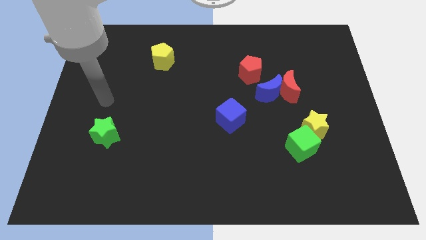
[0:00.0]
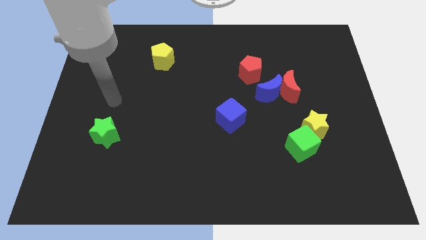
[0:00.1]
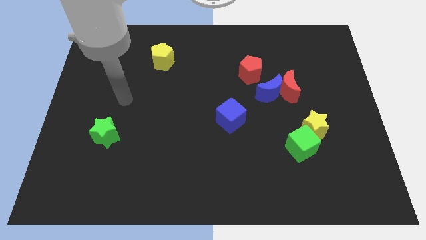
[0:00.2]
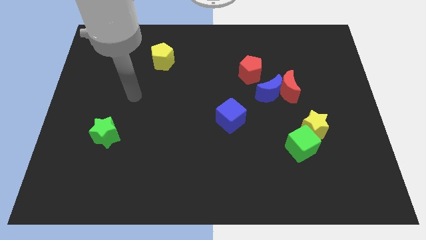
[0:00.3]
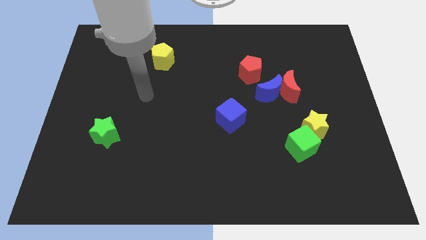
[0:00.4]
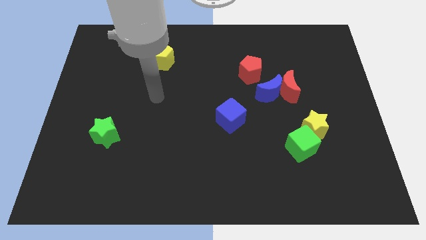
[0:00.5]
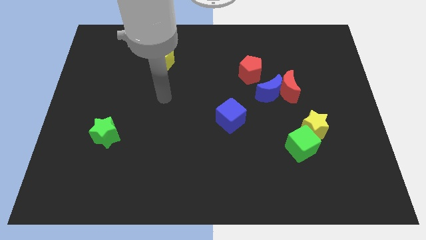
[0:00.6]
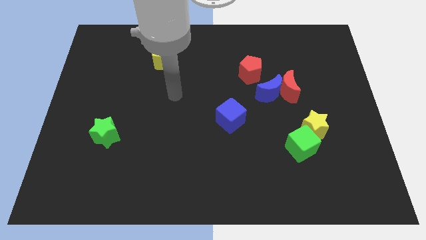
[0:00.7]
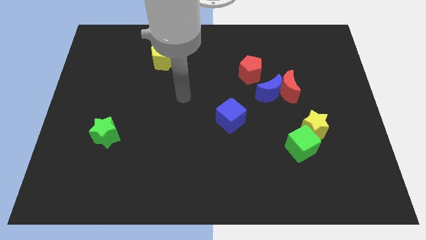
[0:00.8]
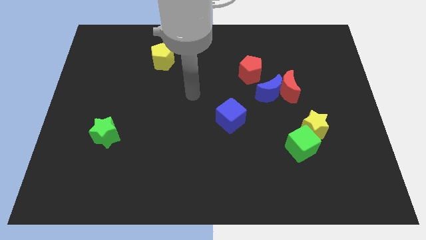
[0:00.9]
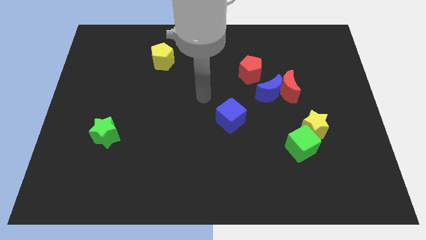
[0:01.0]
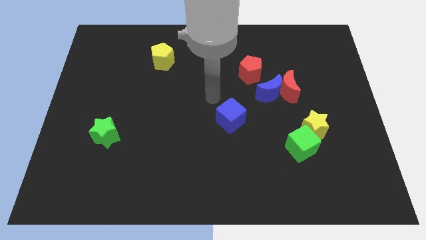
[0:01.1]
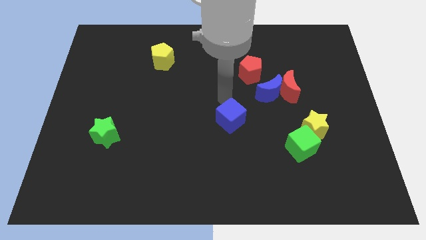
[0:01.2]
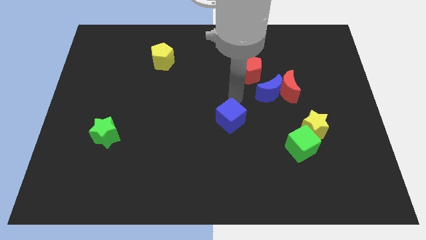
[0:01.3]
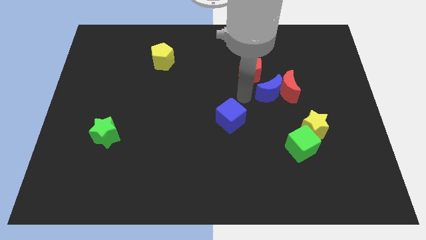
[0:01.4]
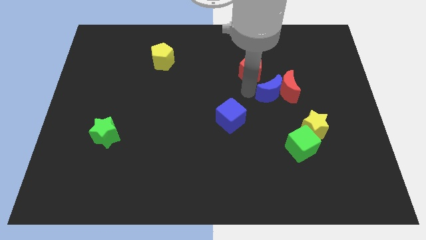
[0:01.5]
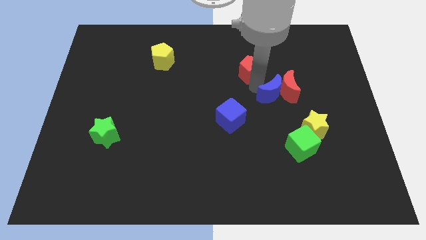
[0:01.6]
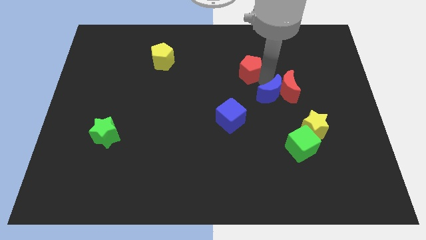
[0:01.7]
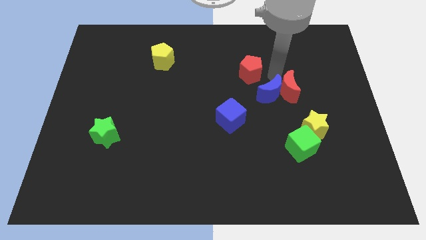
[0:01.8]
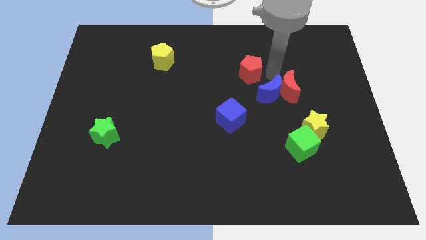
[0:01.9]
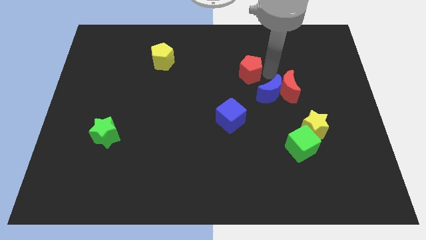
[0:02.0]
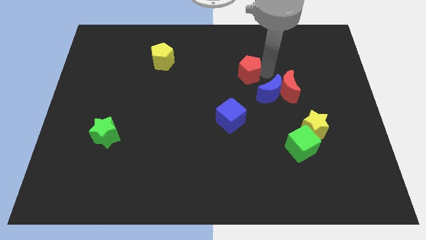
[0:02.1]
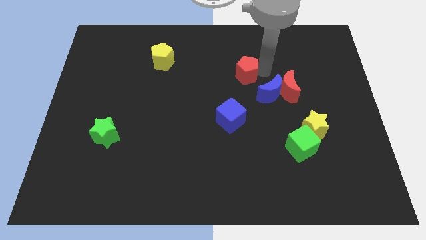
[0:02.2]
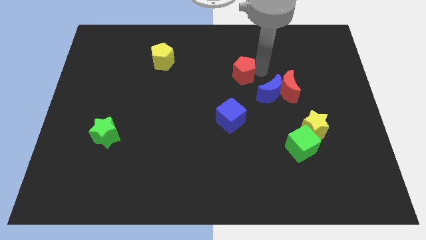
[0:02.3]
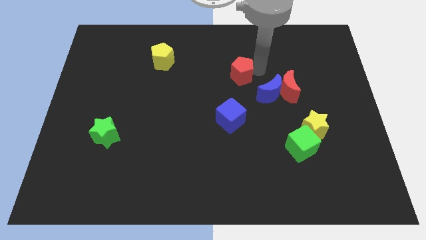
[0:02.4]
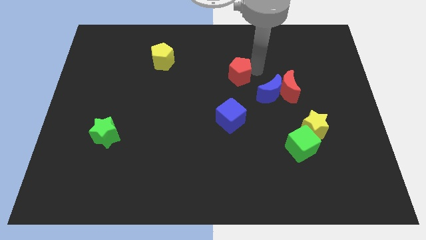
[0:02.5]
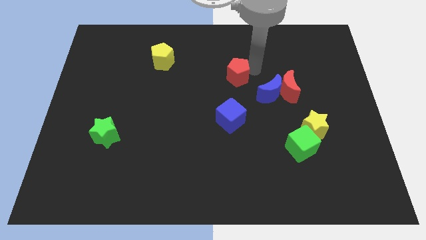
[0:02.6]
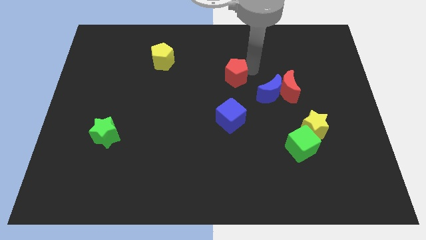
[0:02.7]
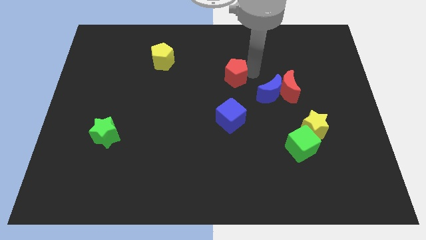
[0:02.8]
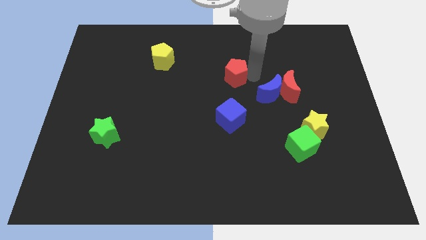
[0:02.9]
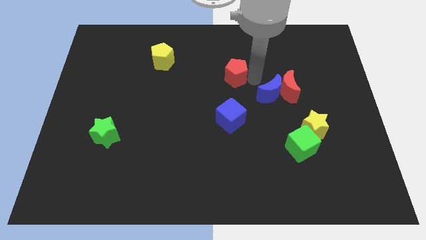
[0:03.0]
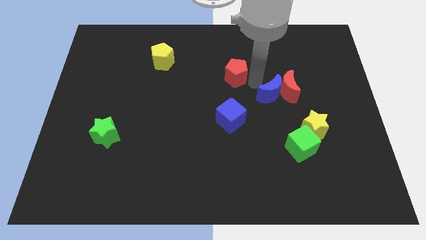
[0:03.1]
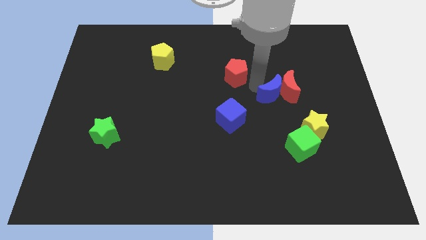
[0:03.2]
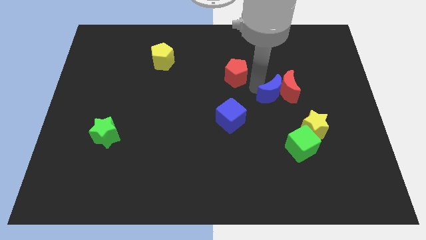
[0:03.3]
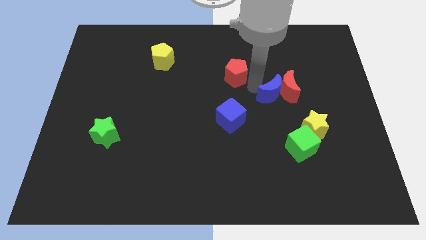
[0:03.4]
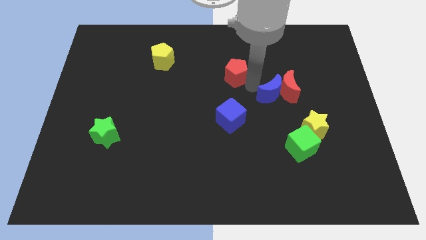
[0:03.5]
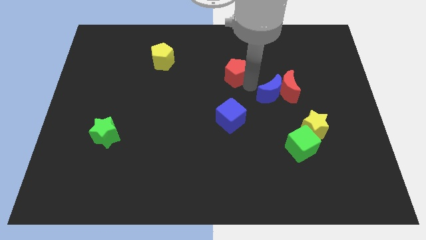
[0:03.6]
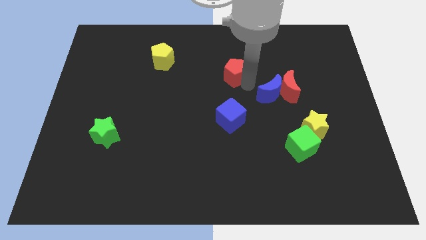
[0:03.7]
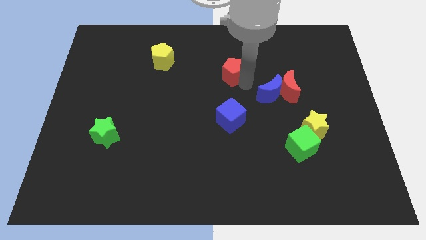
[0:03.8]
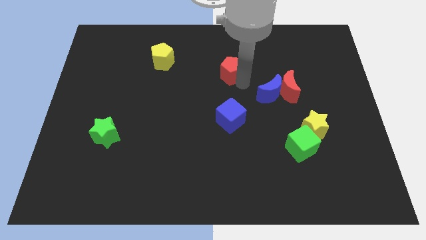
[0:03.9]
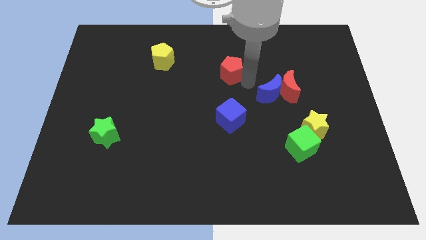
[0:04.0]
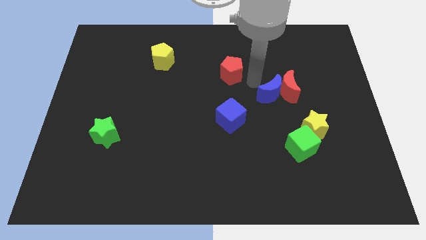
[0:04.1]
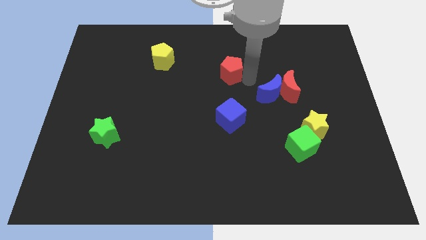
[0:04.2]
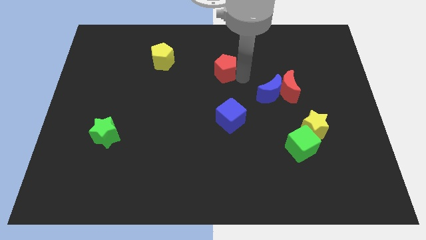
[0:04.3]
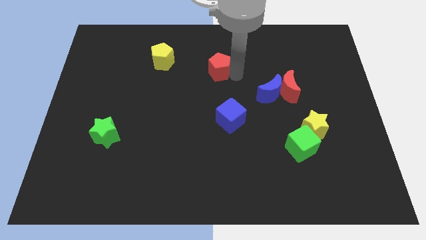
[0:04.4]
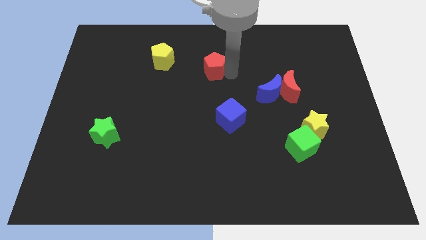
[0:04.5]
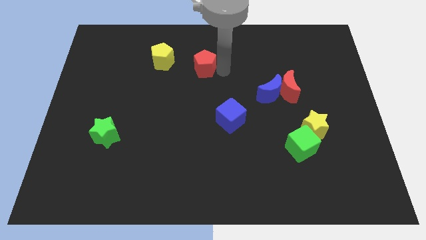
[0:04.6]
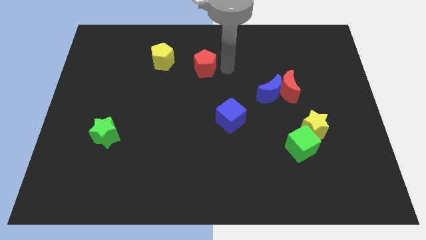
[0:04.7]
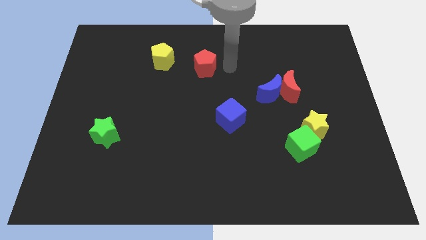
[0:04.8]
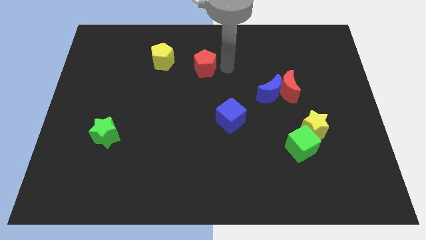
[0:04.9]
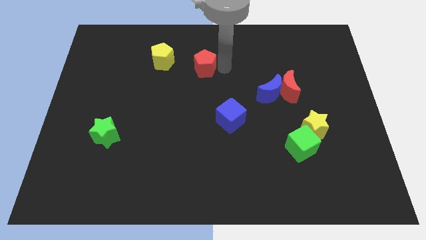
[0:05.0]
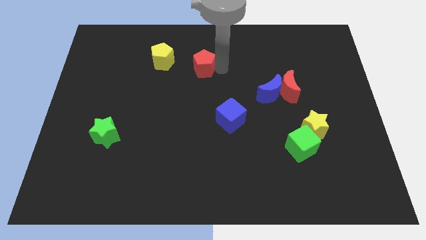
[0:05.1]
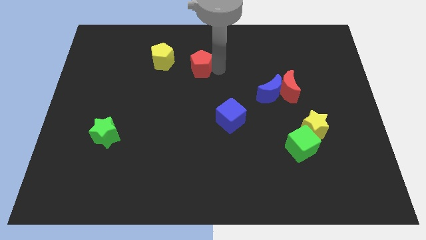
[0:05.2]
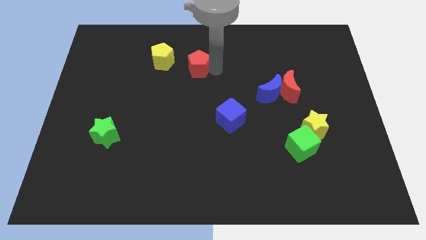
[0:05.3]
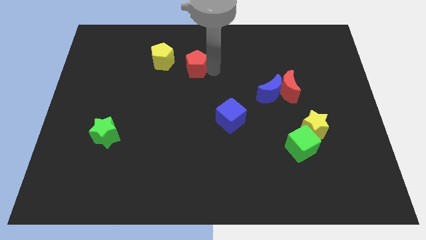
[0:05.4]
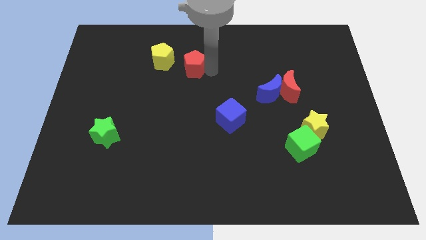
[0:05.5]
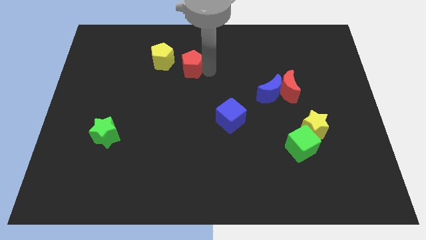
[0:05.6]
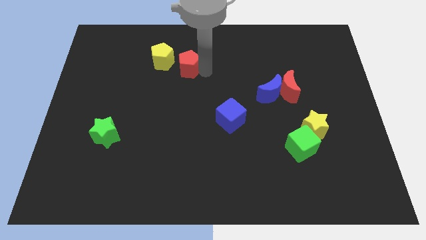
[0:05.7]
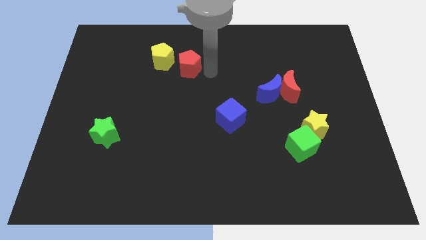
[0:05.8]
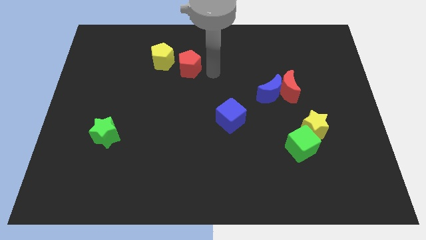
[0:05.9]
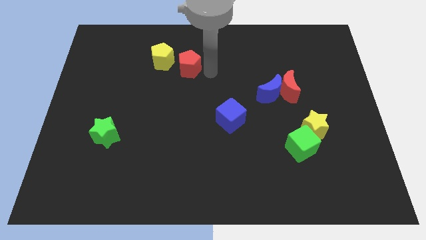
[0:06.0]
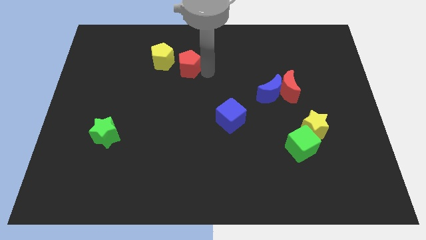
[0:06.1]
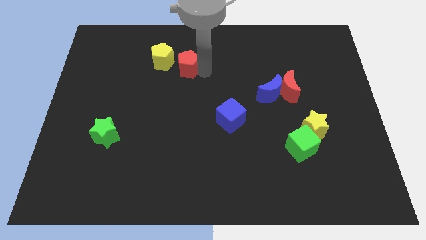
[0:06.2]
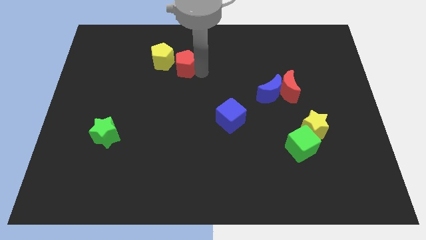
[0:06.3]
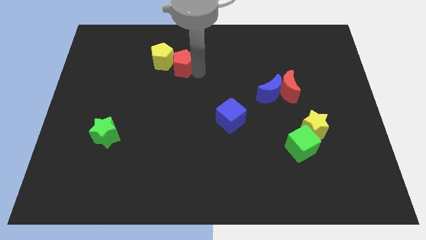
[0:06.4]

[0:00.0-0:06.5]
move the red pentagon to the yellow pentagon

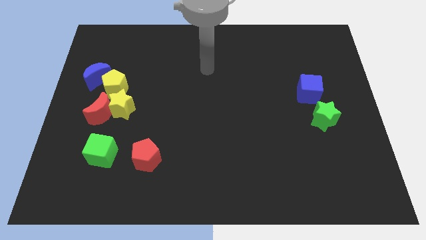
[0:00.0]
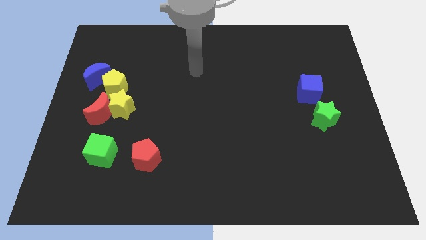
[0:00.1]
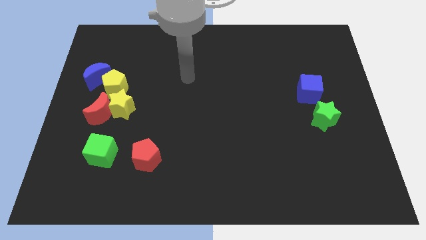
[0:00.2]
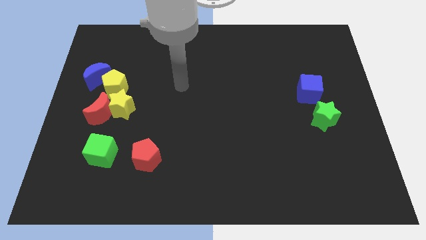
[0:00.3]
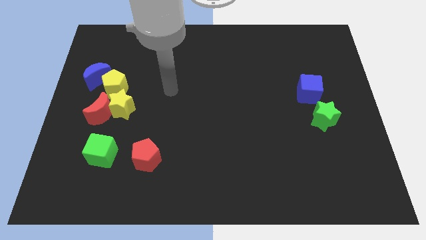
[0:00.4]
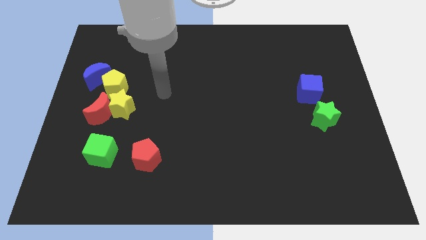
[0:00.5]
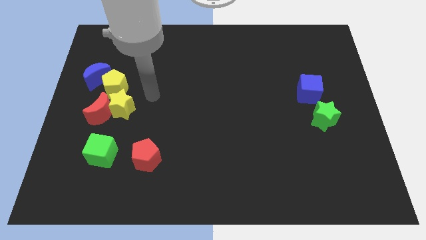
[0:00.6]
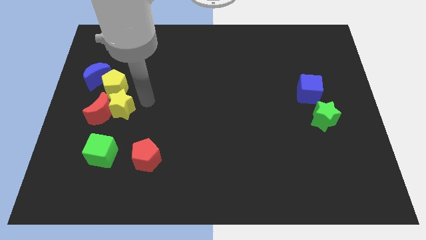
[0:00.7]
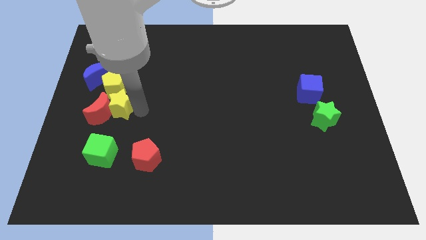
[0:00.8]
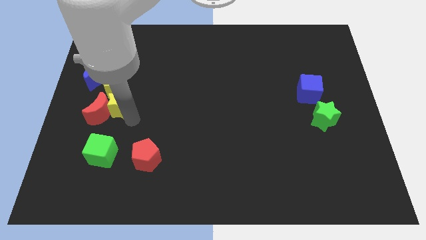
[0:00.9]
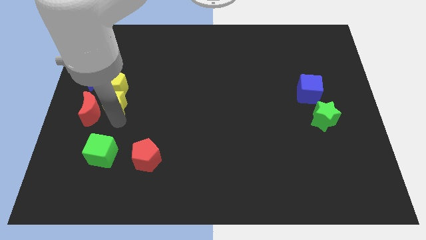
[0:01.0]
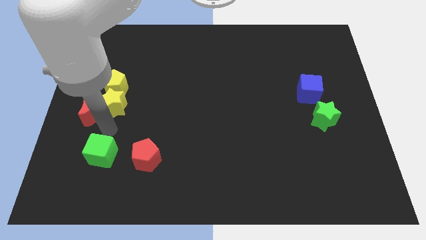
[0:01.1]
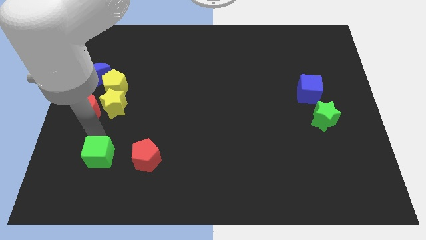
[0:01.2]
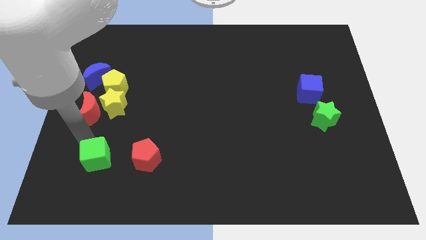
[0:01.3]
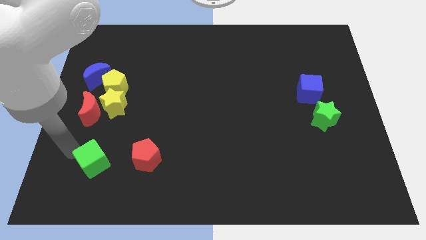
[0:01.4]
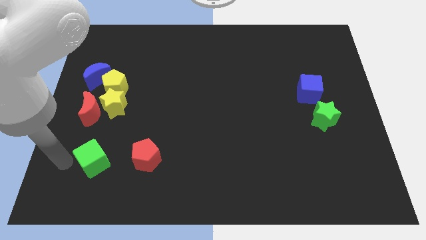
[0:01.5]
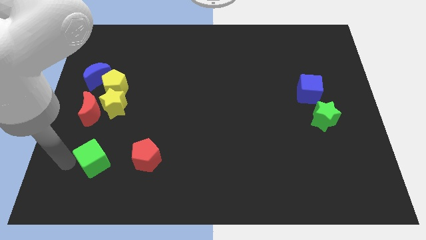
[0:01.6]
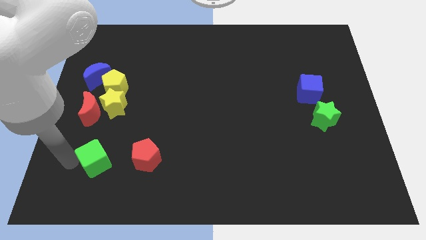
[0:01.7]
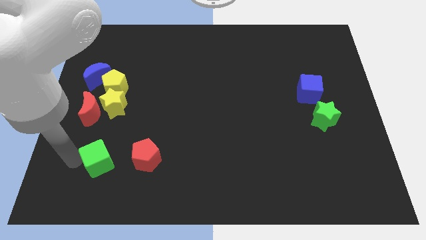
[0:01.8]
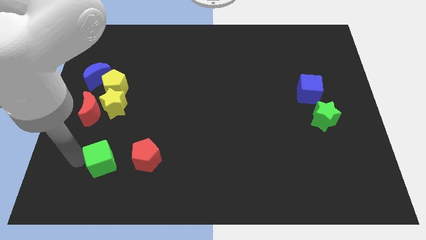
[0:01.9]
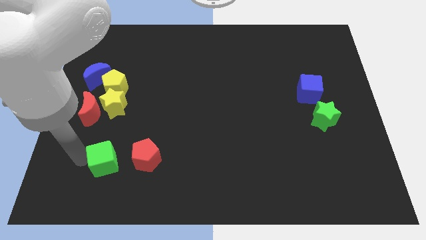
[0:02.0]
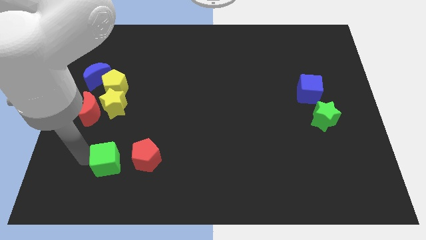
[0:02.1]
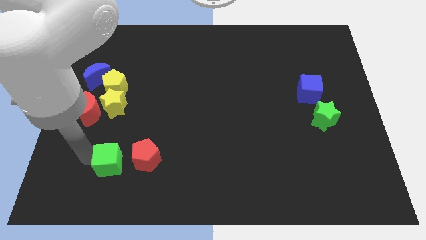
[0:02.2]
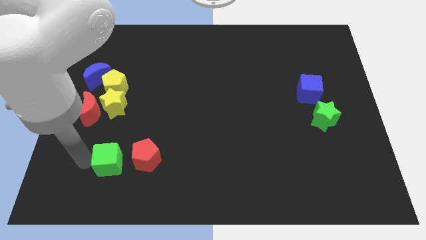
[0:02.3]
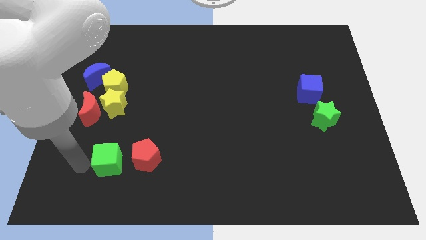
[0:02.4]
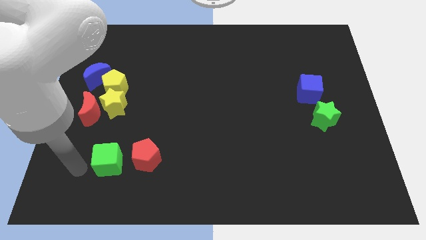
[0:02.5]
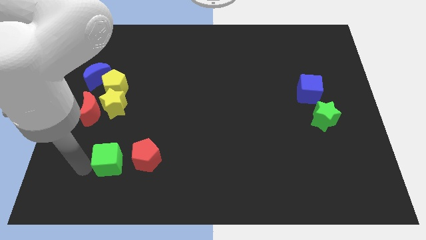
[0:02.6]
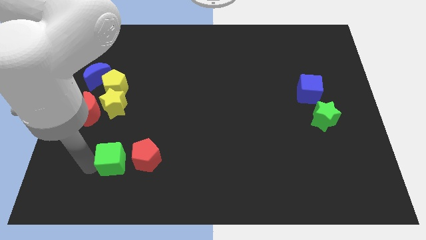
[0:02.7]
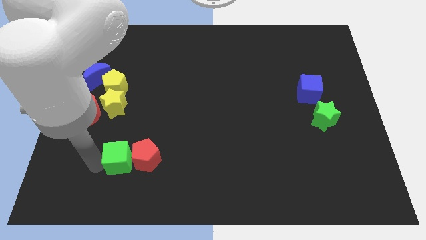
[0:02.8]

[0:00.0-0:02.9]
move the green cube close to the red pentagon
